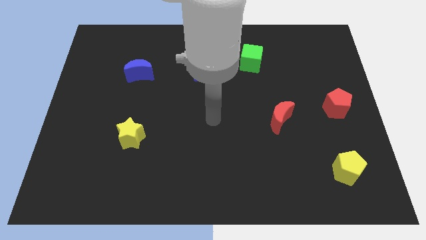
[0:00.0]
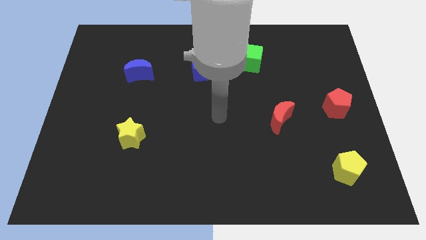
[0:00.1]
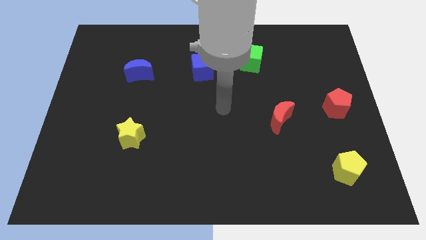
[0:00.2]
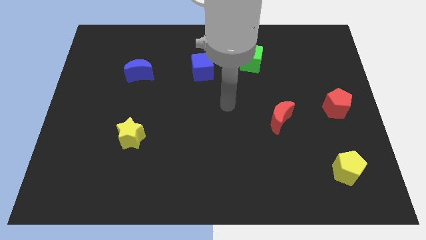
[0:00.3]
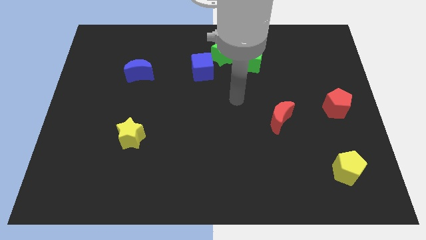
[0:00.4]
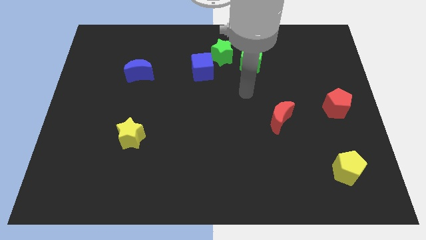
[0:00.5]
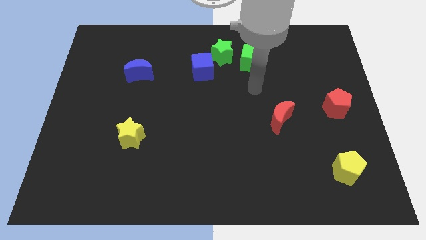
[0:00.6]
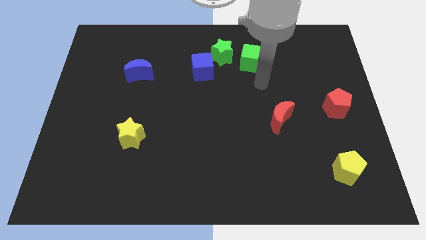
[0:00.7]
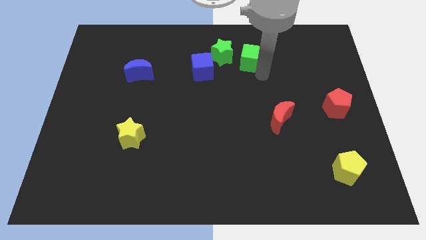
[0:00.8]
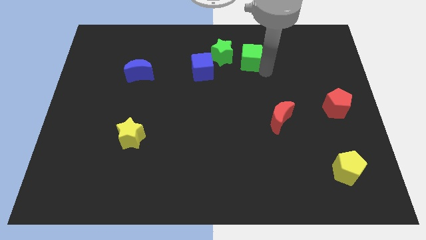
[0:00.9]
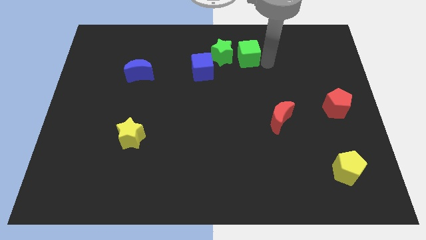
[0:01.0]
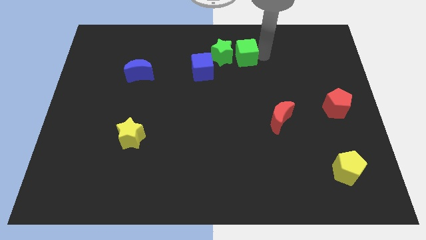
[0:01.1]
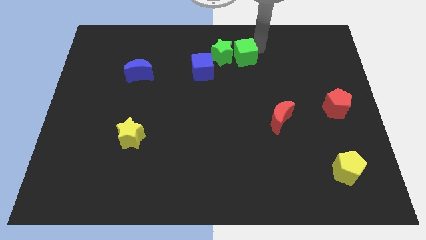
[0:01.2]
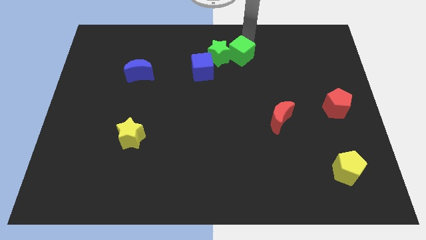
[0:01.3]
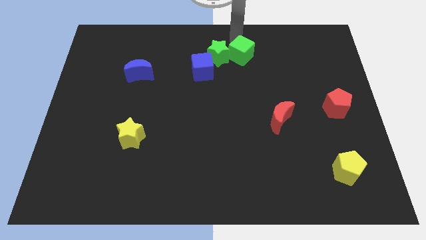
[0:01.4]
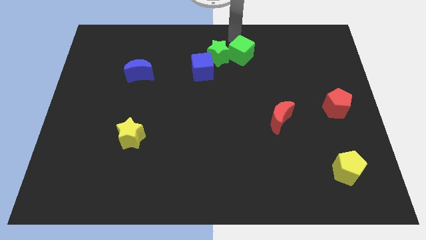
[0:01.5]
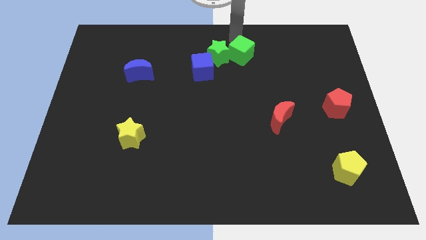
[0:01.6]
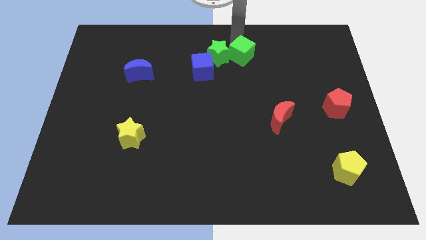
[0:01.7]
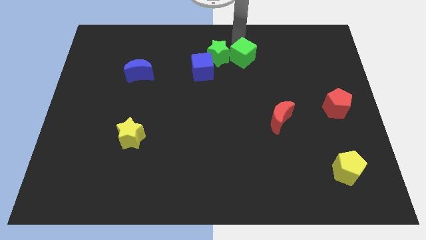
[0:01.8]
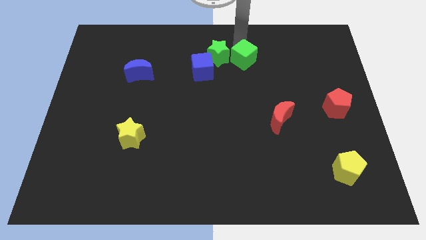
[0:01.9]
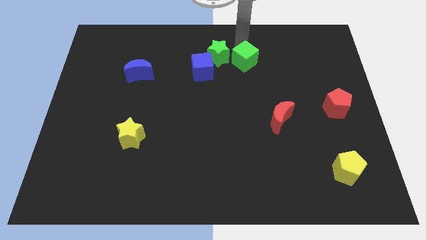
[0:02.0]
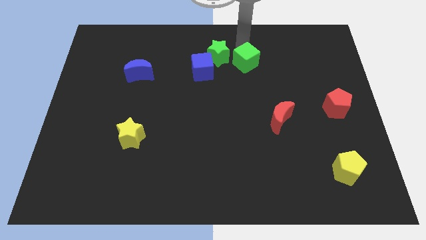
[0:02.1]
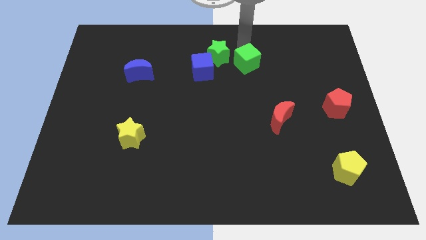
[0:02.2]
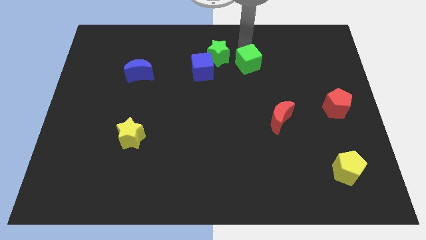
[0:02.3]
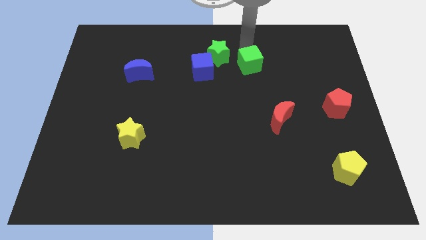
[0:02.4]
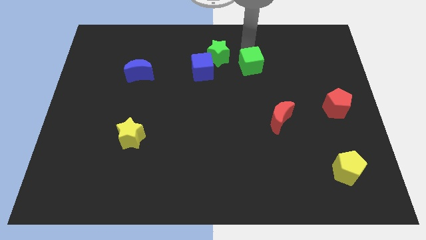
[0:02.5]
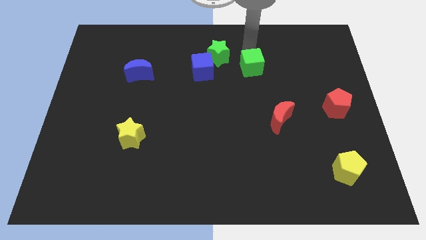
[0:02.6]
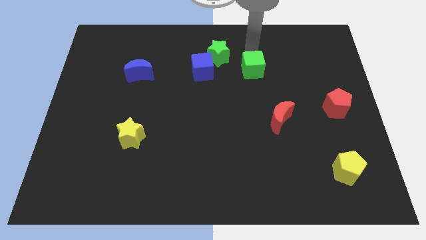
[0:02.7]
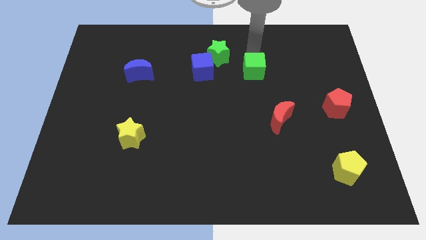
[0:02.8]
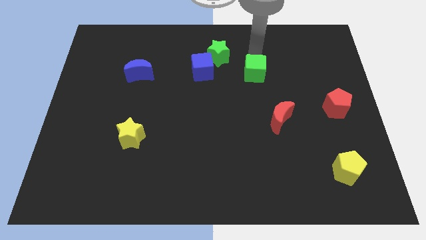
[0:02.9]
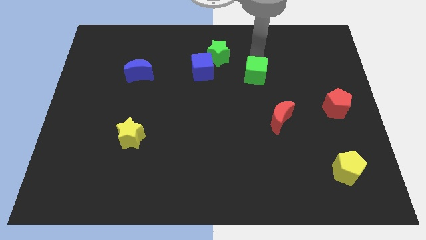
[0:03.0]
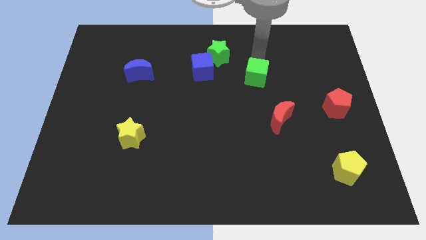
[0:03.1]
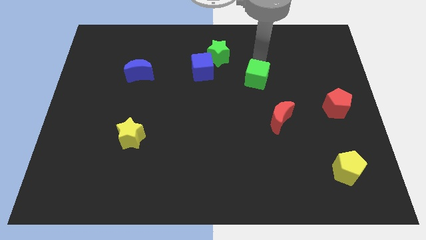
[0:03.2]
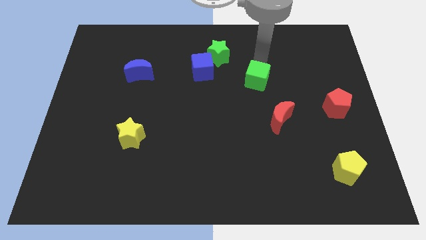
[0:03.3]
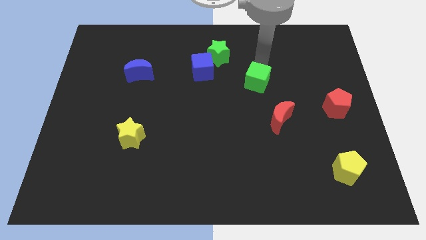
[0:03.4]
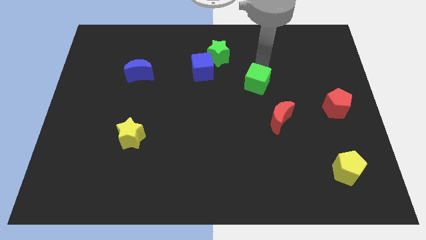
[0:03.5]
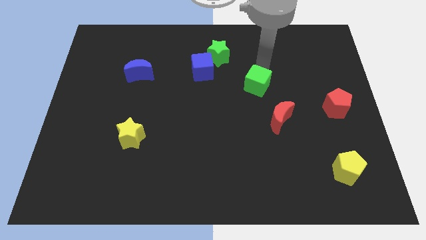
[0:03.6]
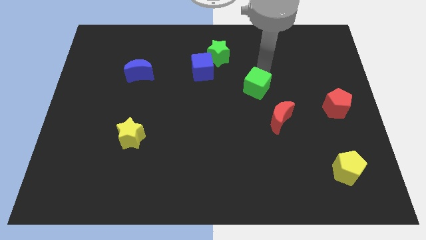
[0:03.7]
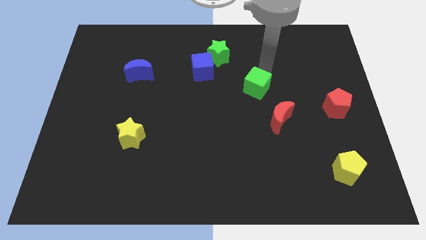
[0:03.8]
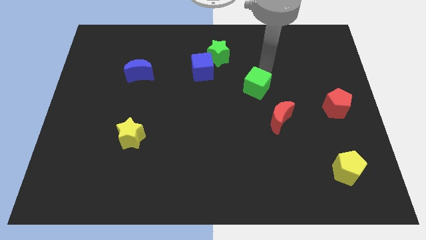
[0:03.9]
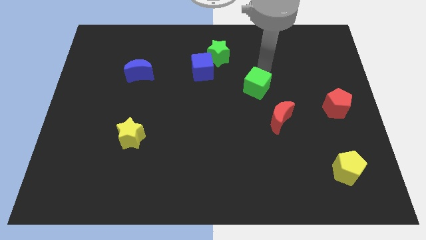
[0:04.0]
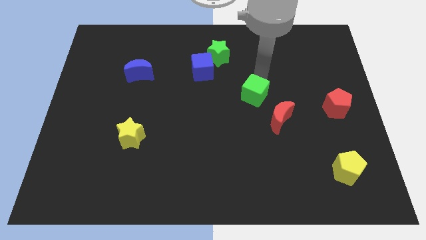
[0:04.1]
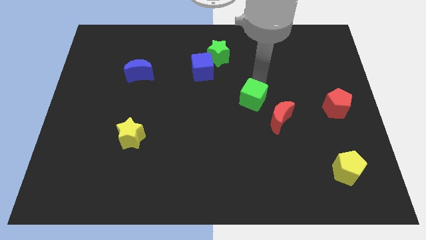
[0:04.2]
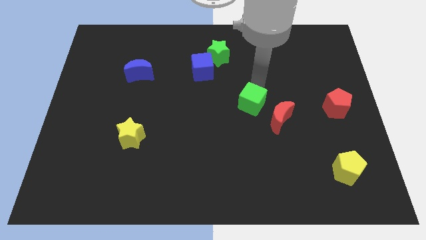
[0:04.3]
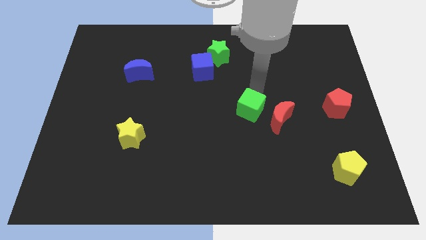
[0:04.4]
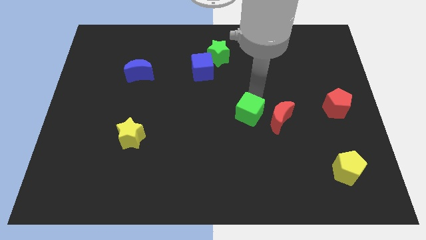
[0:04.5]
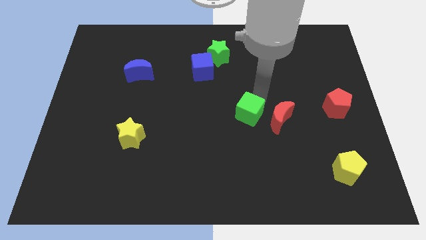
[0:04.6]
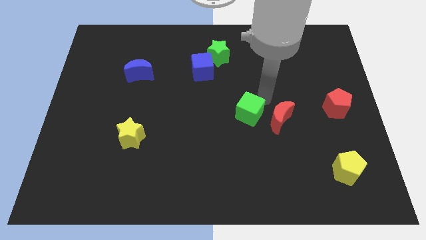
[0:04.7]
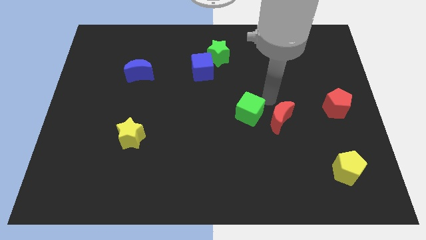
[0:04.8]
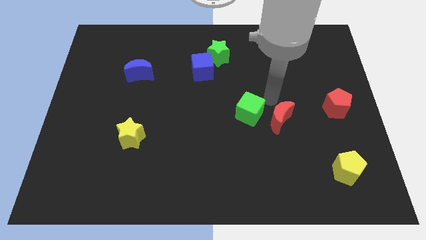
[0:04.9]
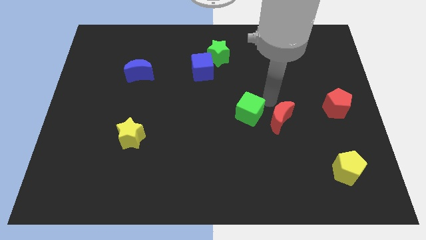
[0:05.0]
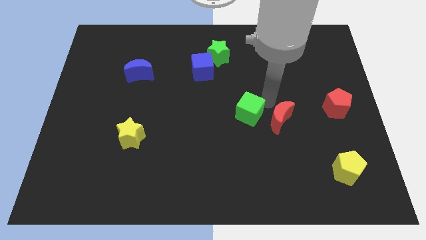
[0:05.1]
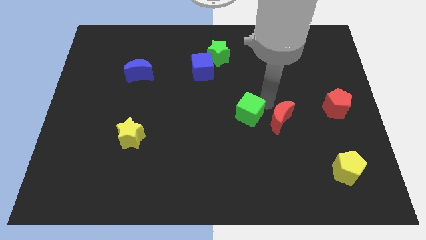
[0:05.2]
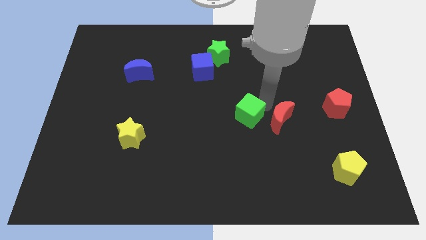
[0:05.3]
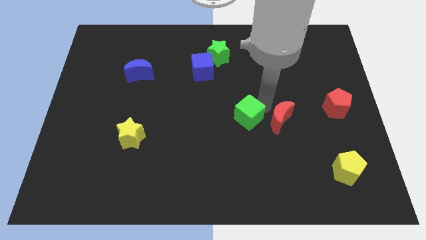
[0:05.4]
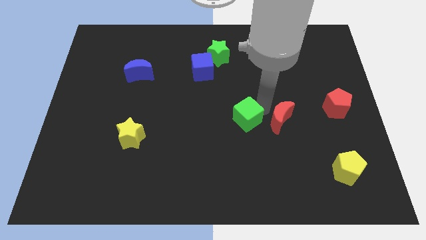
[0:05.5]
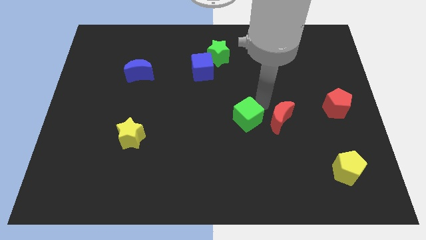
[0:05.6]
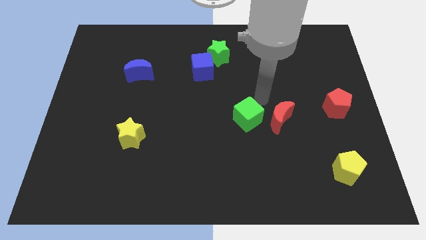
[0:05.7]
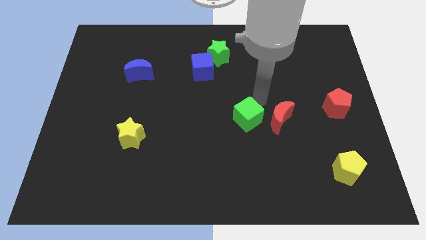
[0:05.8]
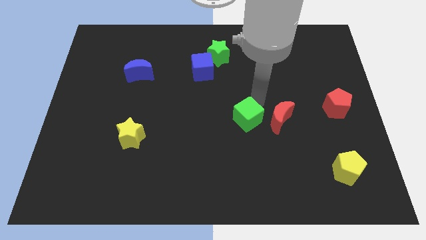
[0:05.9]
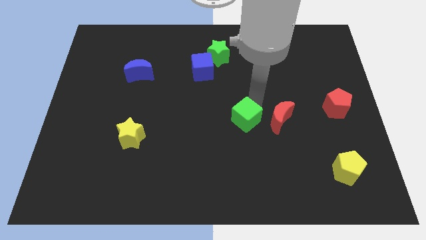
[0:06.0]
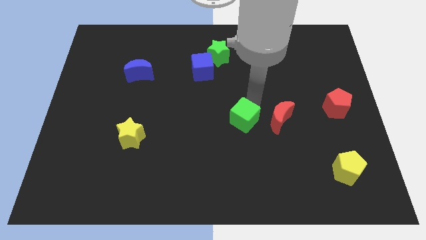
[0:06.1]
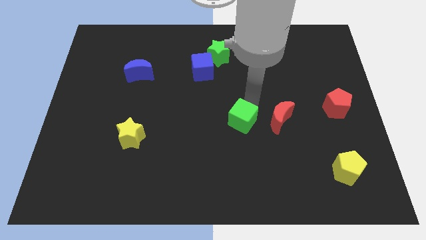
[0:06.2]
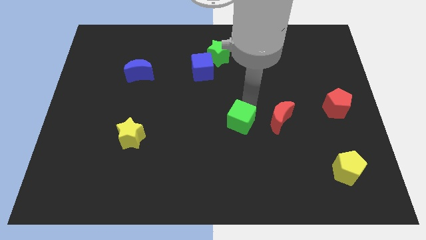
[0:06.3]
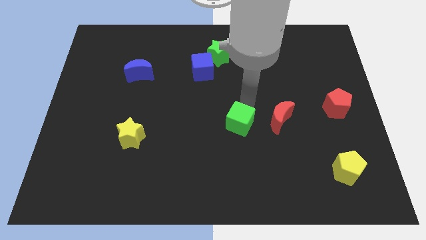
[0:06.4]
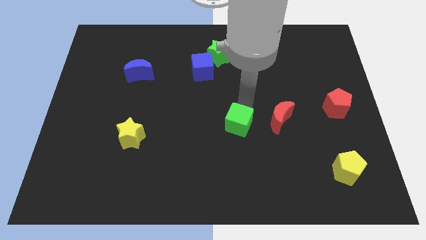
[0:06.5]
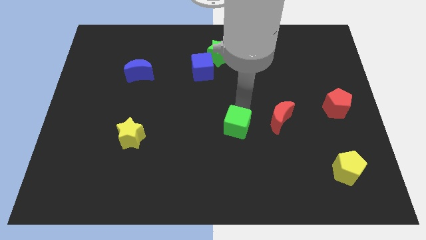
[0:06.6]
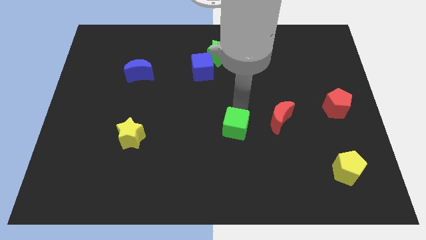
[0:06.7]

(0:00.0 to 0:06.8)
move the green cube down

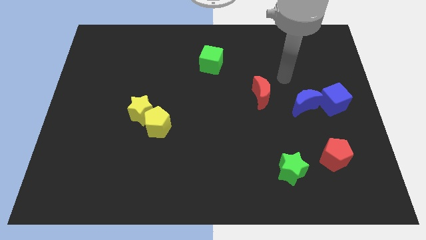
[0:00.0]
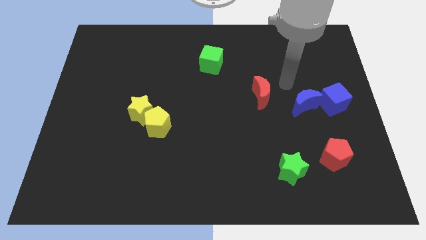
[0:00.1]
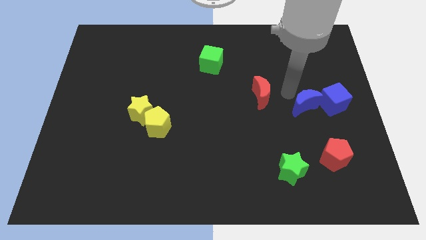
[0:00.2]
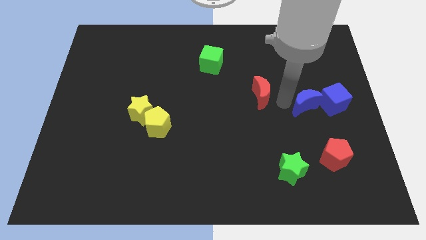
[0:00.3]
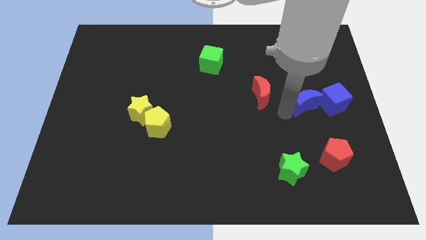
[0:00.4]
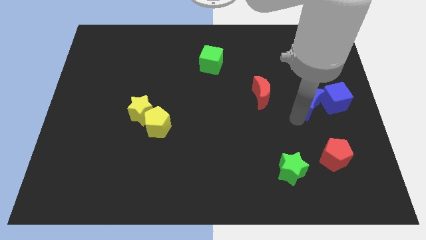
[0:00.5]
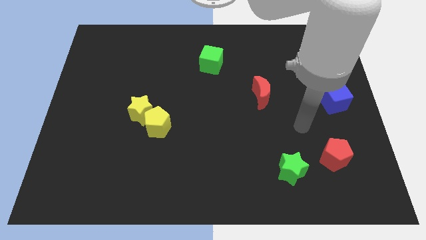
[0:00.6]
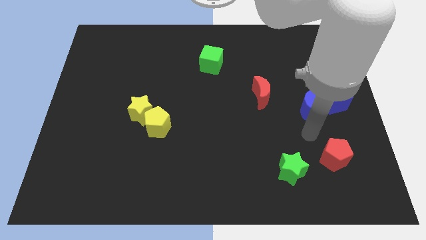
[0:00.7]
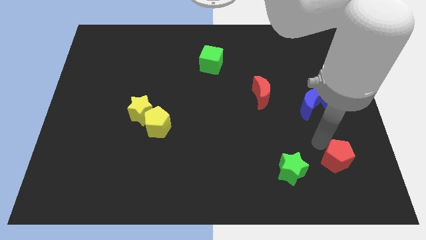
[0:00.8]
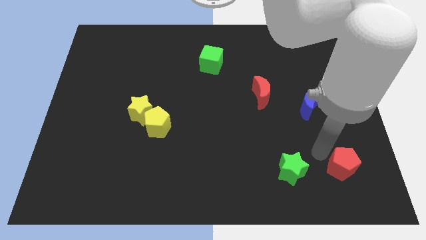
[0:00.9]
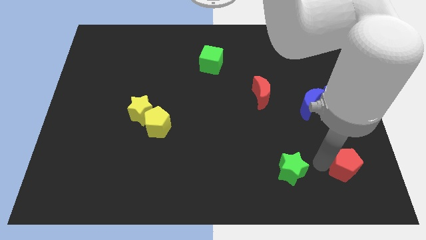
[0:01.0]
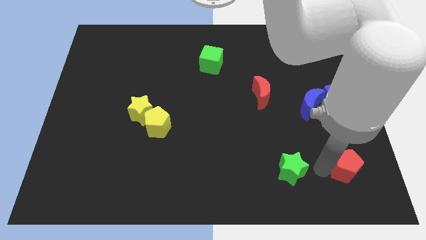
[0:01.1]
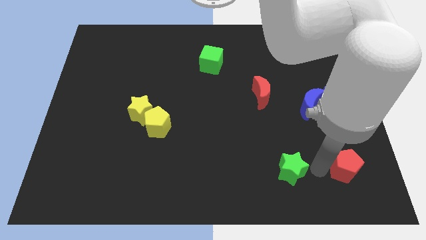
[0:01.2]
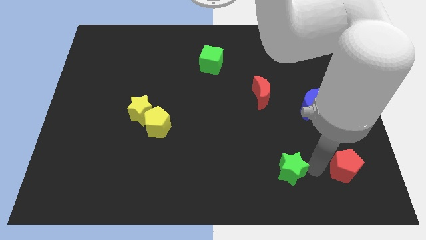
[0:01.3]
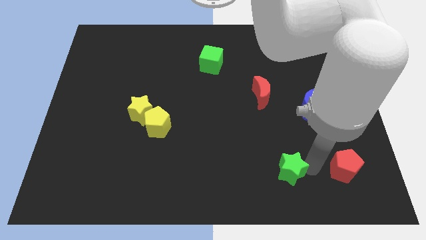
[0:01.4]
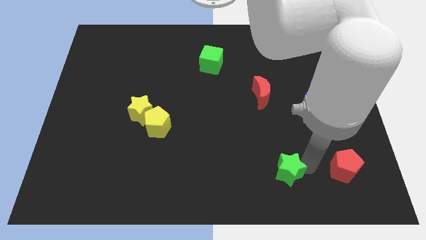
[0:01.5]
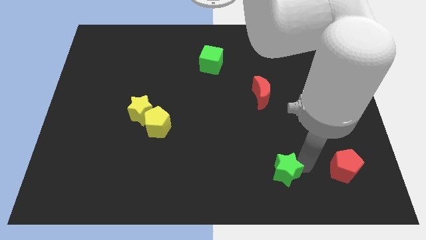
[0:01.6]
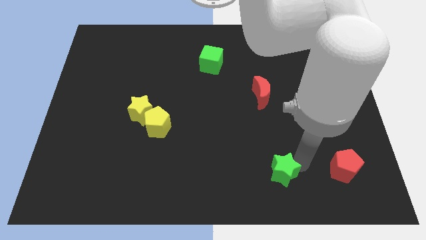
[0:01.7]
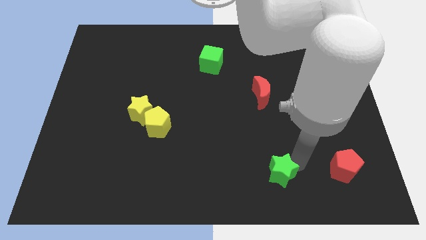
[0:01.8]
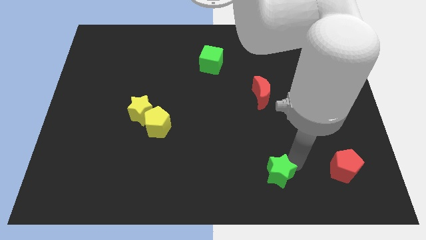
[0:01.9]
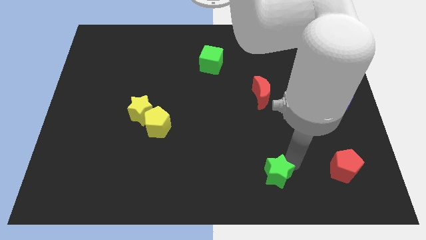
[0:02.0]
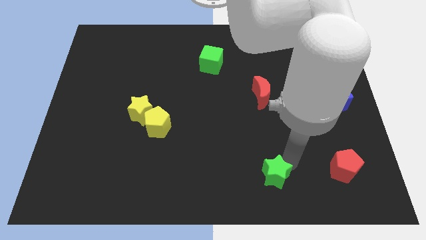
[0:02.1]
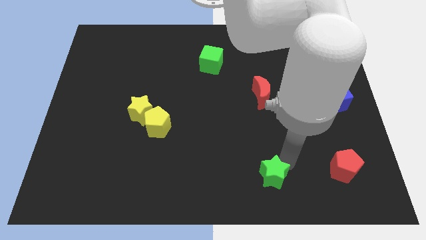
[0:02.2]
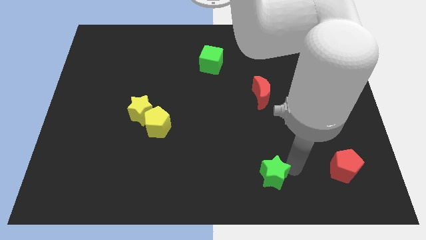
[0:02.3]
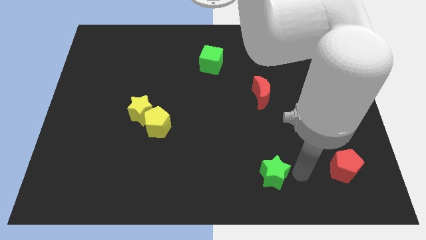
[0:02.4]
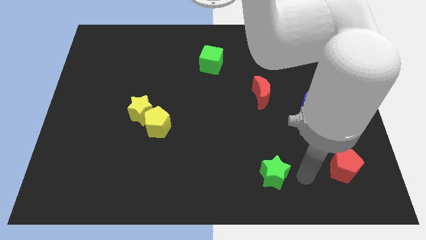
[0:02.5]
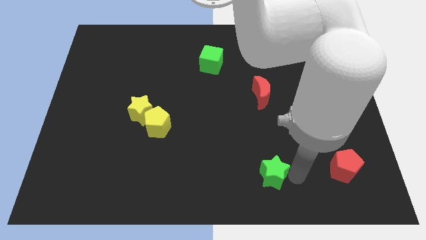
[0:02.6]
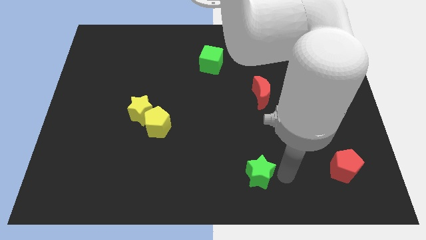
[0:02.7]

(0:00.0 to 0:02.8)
move the green star a little left
